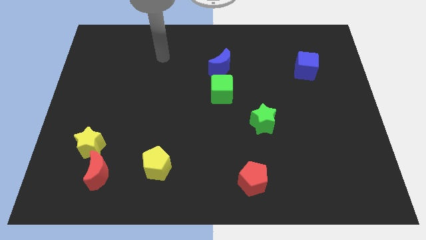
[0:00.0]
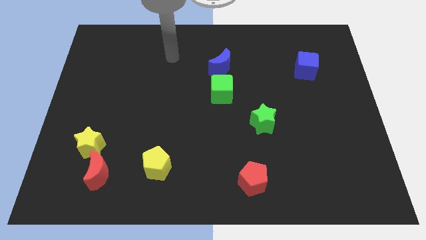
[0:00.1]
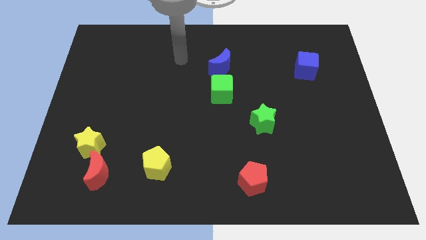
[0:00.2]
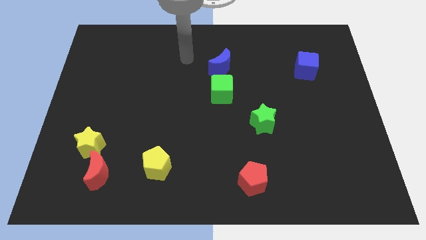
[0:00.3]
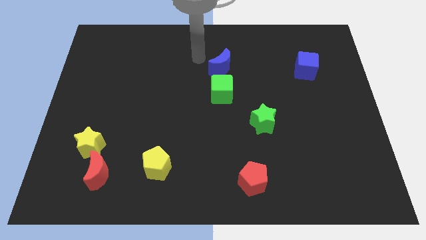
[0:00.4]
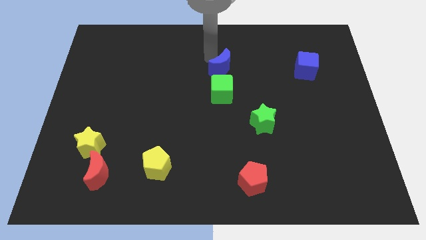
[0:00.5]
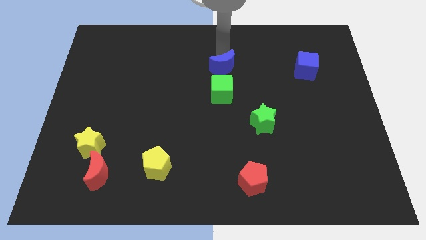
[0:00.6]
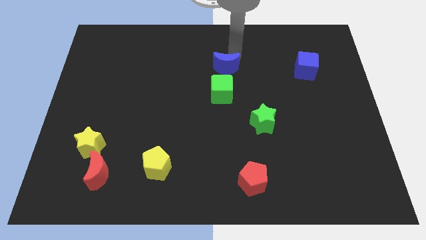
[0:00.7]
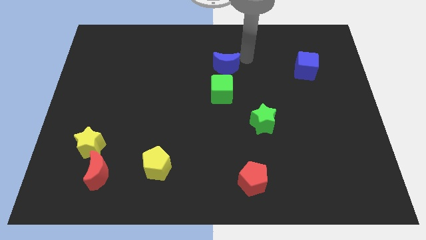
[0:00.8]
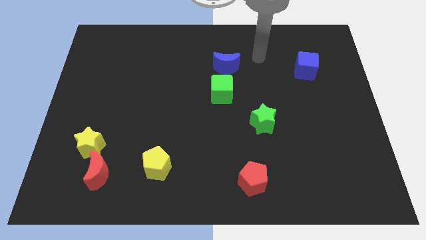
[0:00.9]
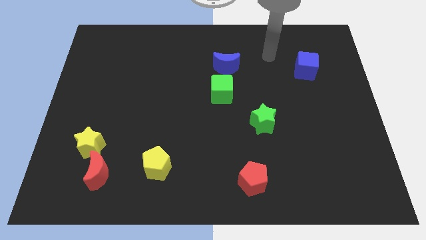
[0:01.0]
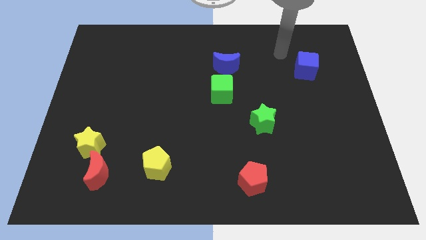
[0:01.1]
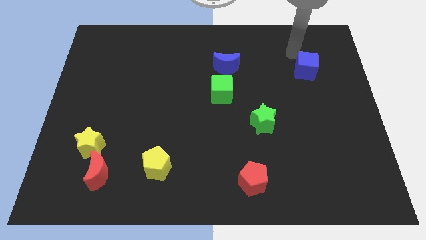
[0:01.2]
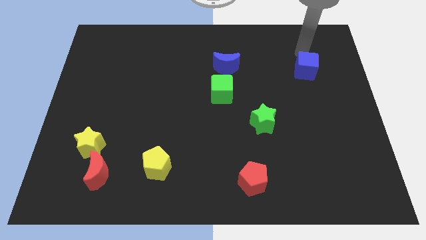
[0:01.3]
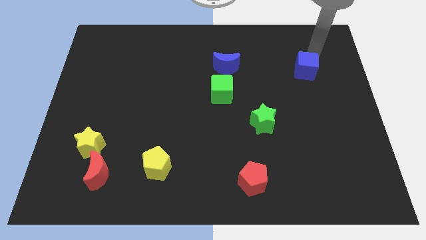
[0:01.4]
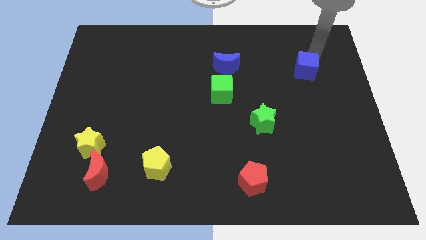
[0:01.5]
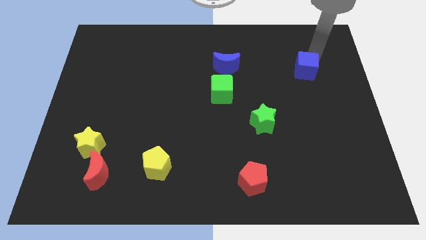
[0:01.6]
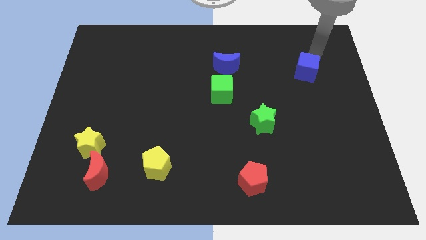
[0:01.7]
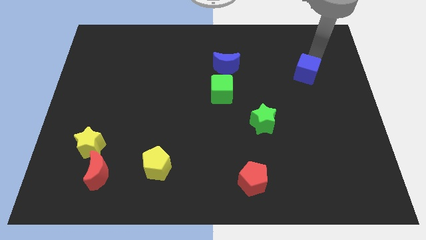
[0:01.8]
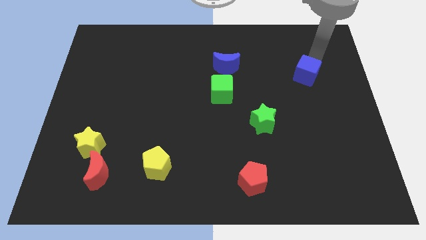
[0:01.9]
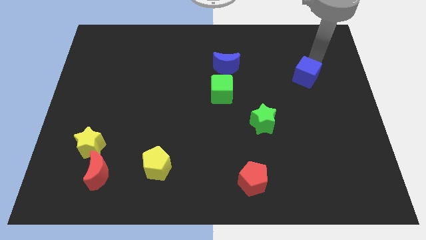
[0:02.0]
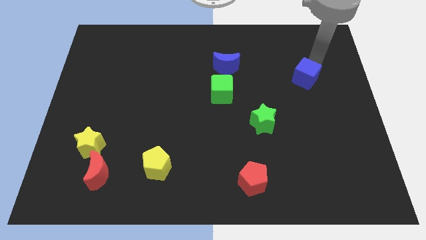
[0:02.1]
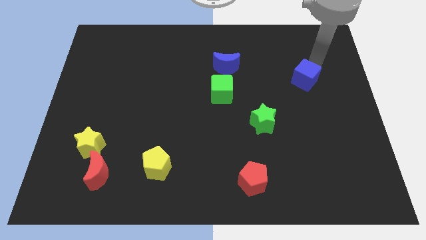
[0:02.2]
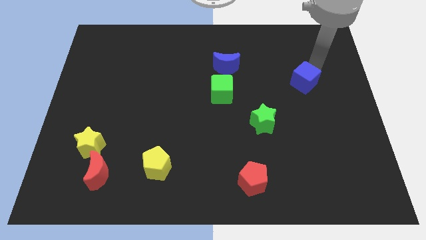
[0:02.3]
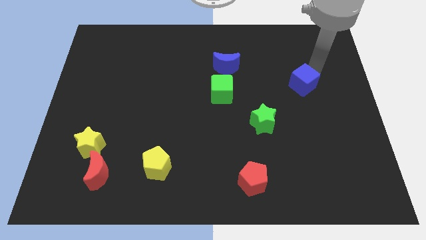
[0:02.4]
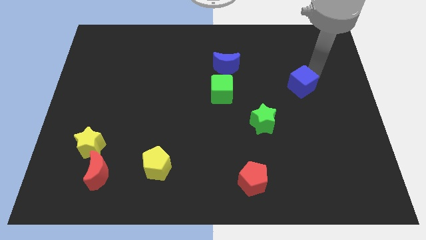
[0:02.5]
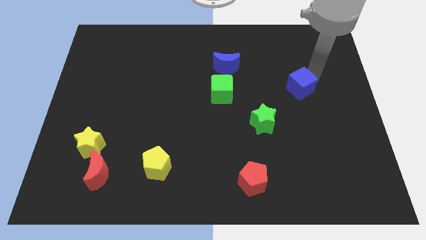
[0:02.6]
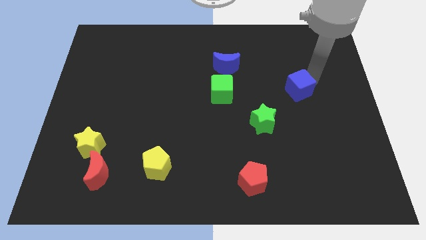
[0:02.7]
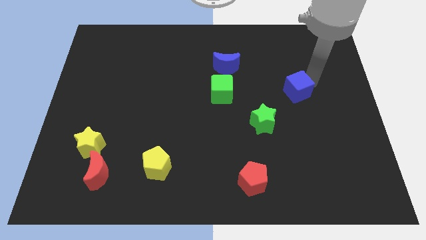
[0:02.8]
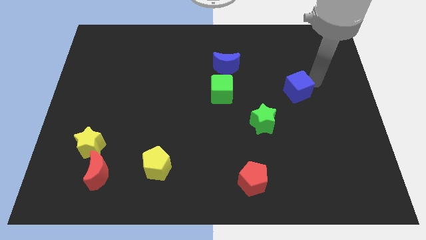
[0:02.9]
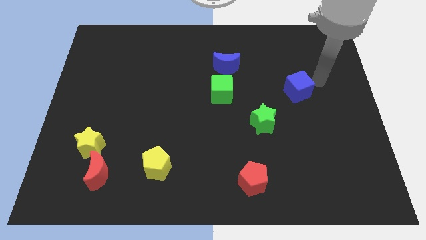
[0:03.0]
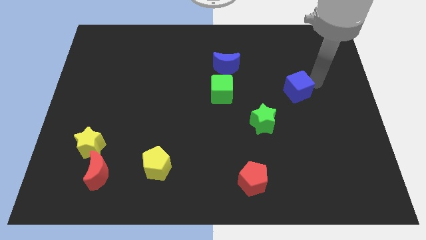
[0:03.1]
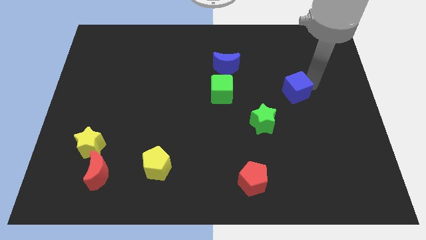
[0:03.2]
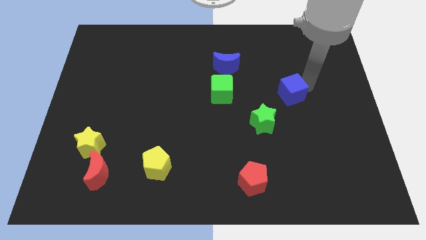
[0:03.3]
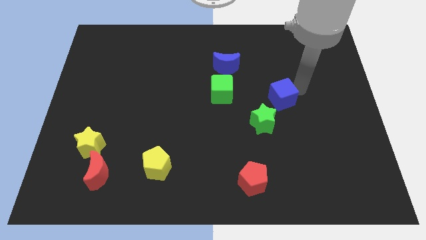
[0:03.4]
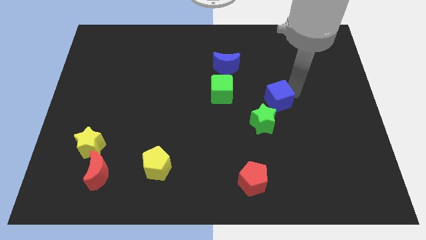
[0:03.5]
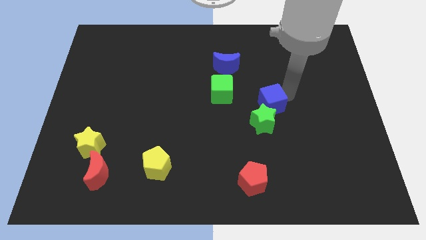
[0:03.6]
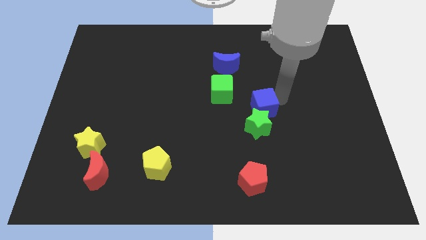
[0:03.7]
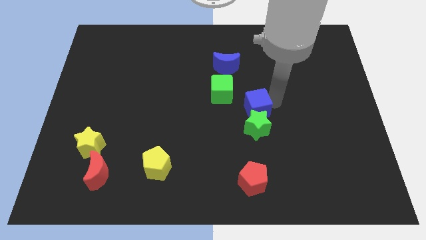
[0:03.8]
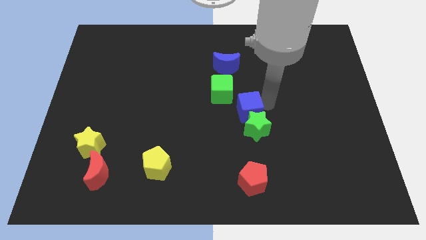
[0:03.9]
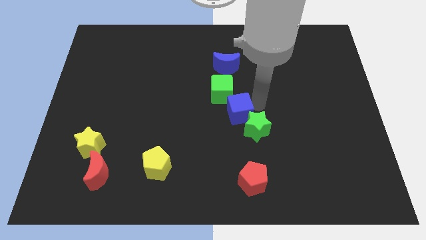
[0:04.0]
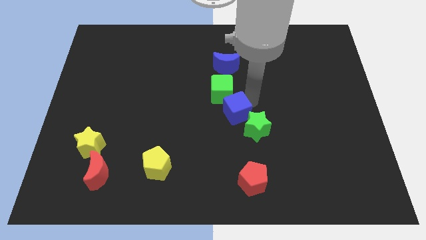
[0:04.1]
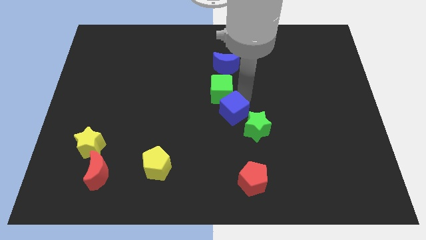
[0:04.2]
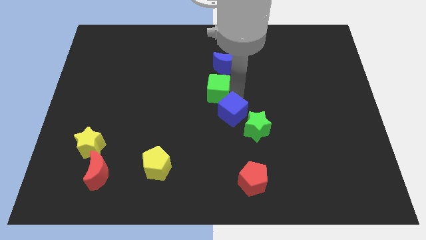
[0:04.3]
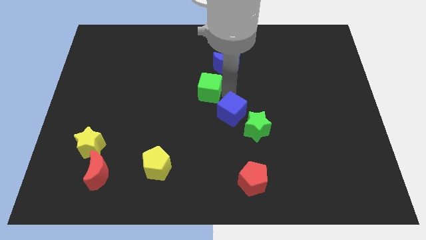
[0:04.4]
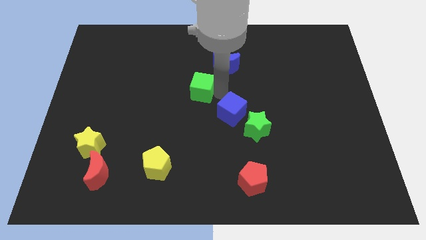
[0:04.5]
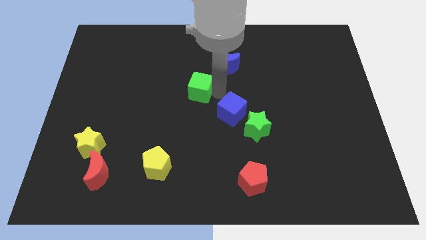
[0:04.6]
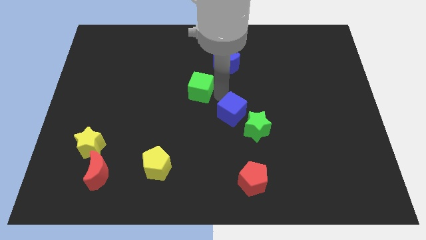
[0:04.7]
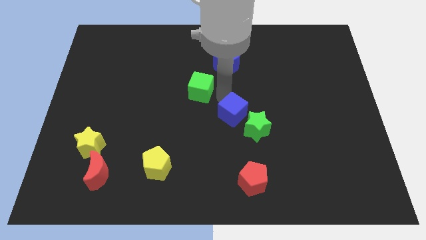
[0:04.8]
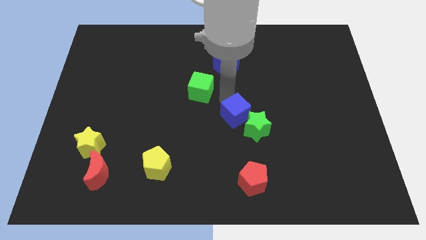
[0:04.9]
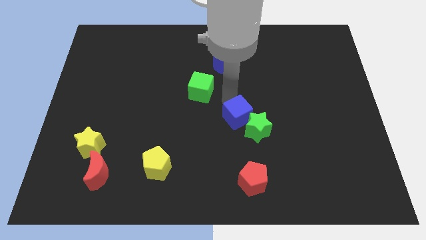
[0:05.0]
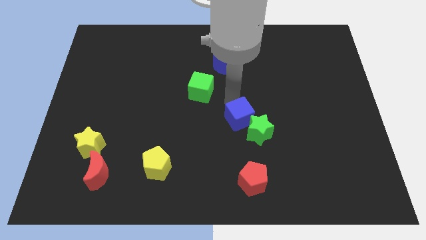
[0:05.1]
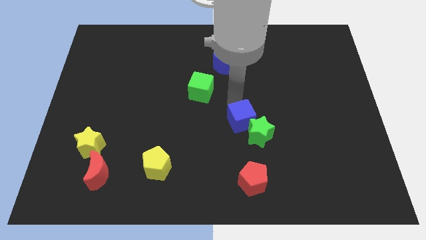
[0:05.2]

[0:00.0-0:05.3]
put the blue cube to the top side of the red pentagon

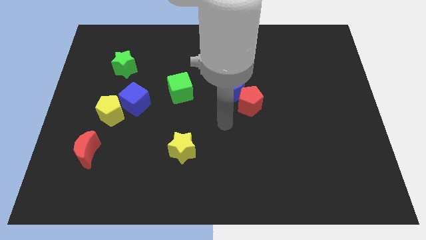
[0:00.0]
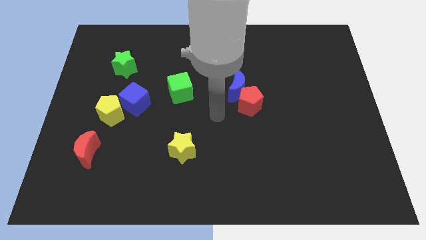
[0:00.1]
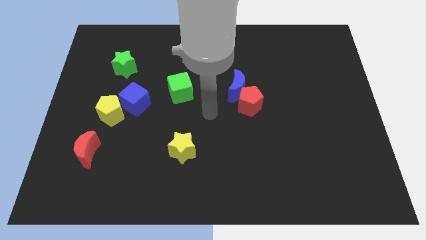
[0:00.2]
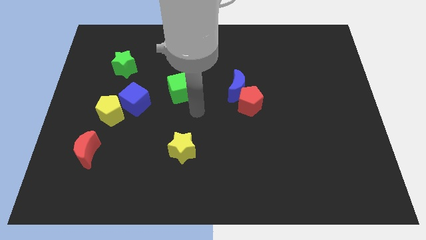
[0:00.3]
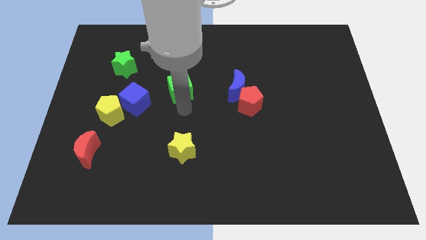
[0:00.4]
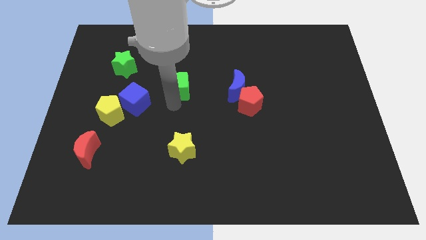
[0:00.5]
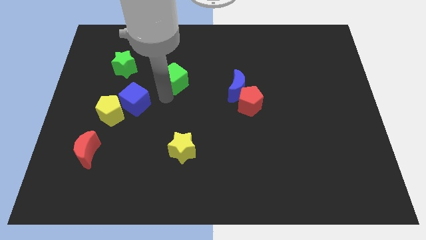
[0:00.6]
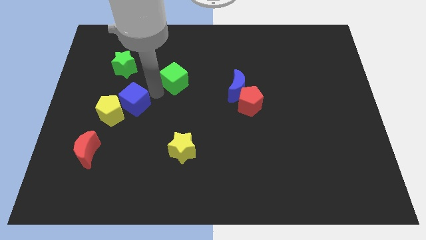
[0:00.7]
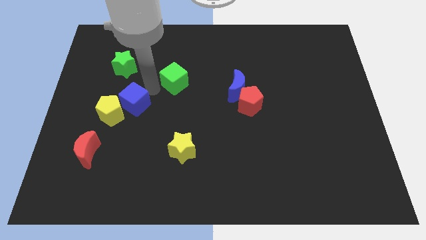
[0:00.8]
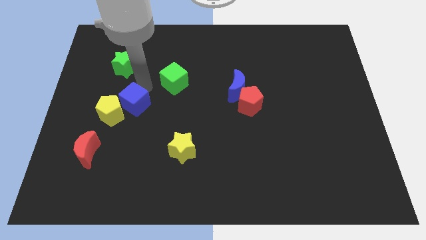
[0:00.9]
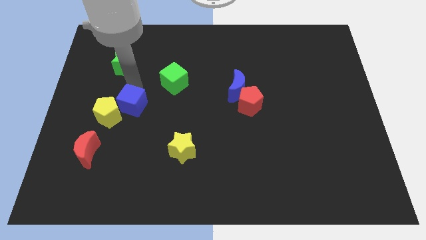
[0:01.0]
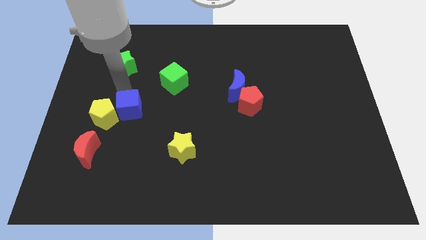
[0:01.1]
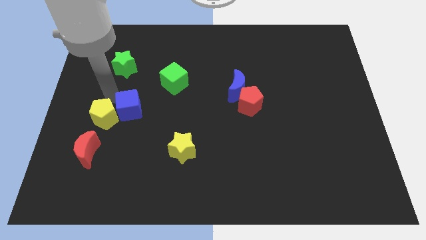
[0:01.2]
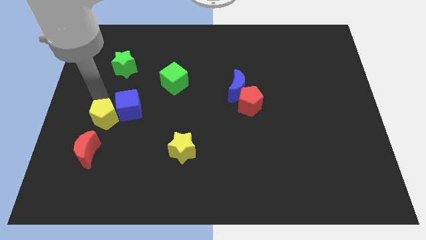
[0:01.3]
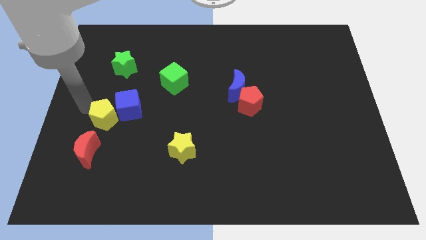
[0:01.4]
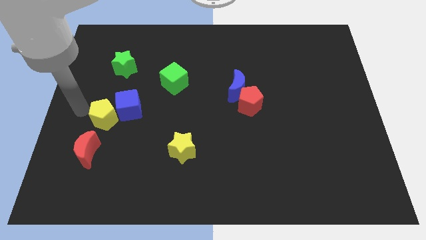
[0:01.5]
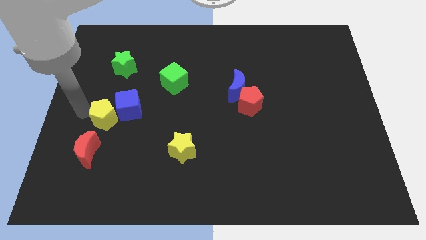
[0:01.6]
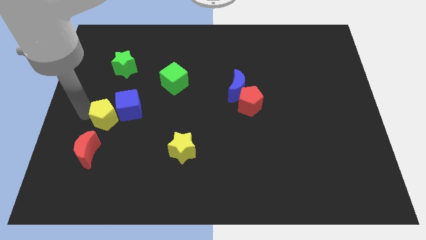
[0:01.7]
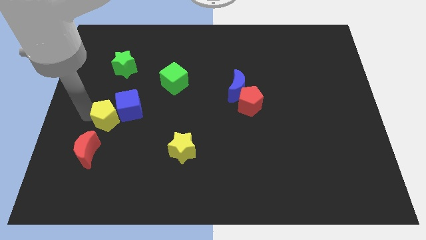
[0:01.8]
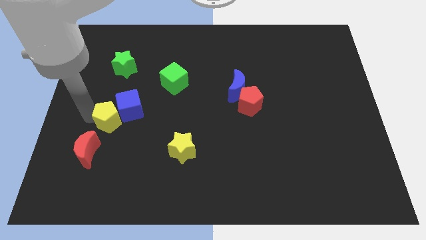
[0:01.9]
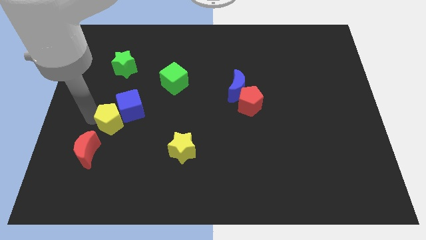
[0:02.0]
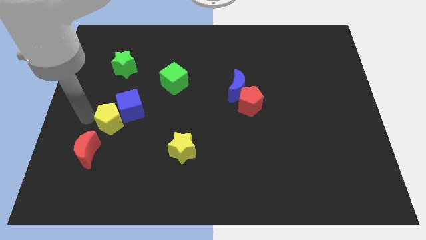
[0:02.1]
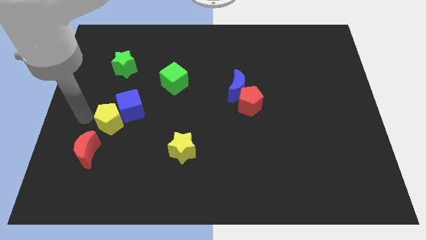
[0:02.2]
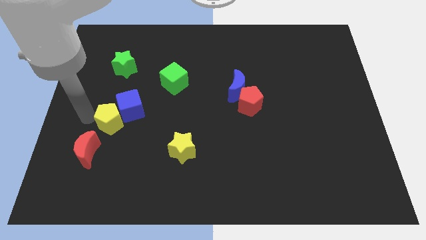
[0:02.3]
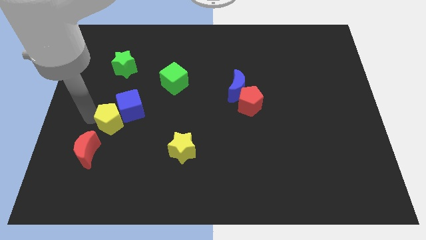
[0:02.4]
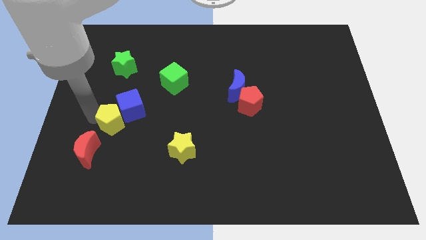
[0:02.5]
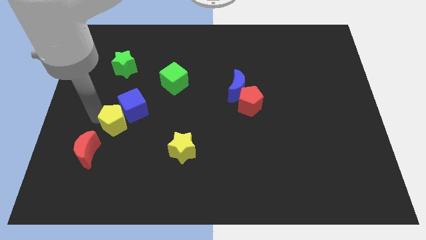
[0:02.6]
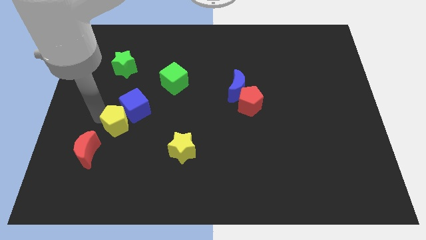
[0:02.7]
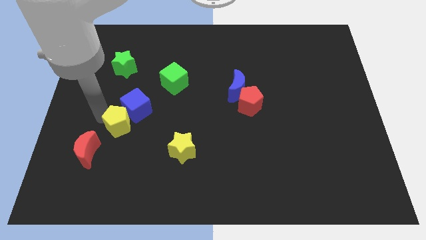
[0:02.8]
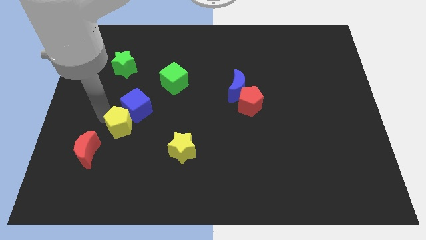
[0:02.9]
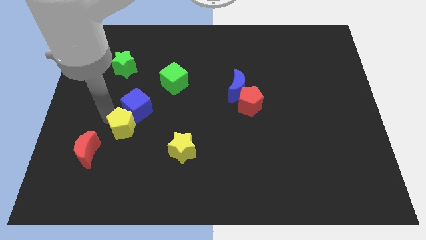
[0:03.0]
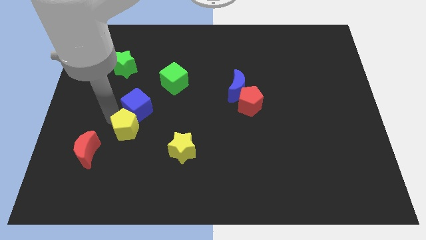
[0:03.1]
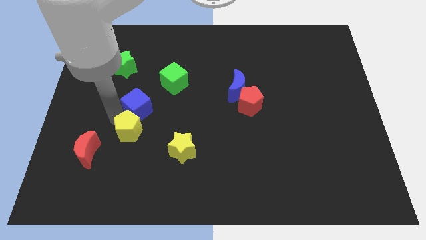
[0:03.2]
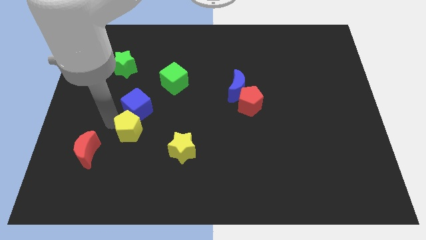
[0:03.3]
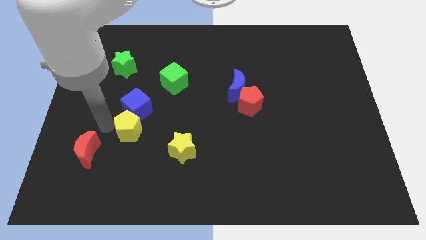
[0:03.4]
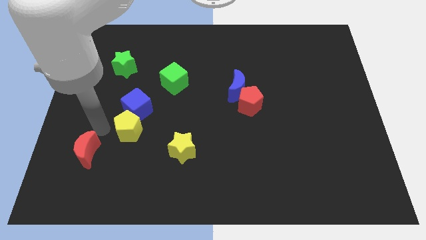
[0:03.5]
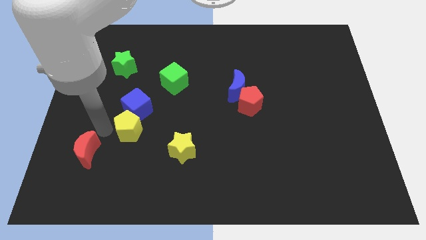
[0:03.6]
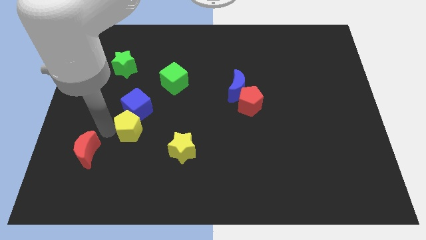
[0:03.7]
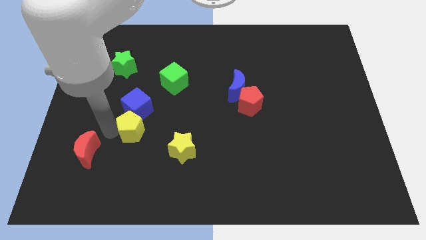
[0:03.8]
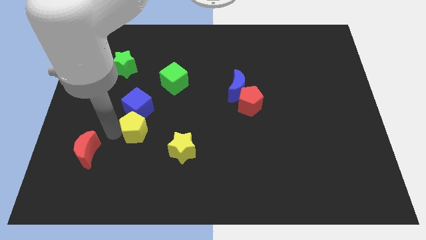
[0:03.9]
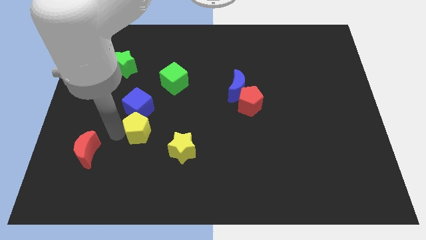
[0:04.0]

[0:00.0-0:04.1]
slide the yellow pentagon to the top left side of the yellow star
